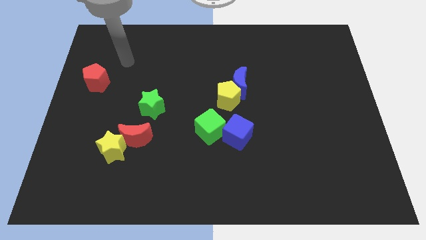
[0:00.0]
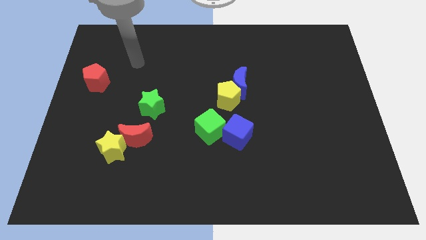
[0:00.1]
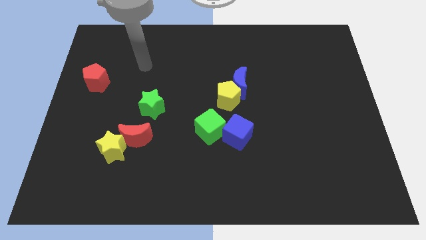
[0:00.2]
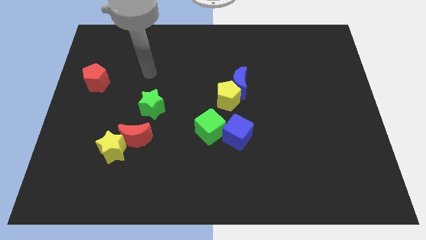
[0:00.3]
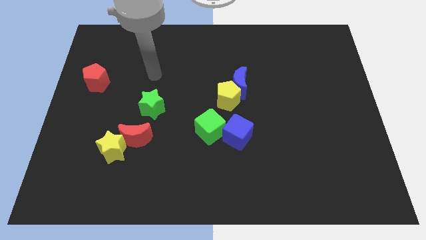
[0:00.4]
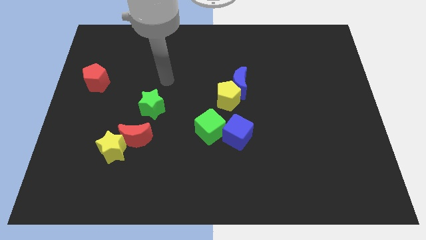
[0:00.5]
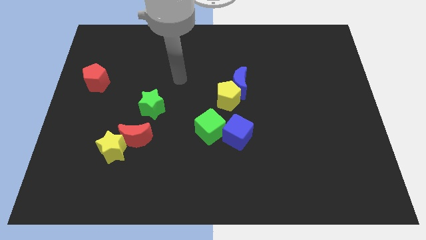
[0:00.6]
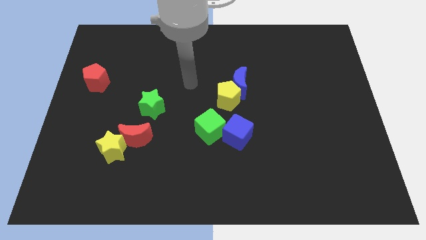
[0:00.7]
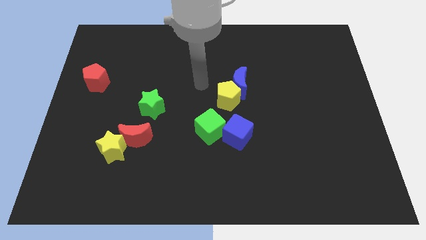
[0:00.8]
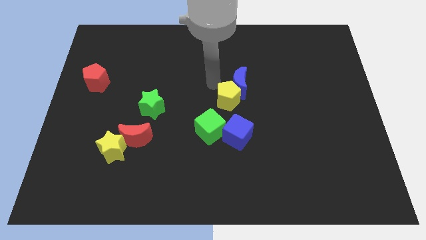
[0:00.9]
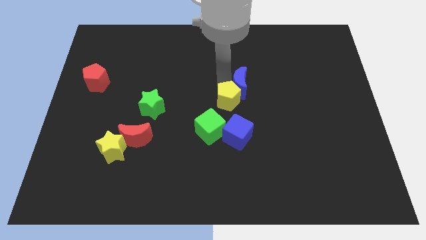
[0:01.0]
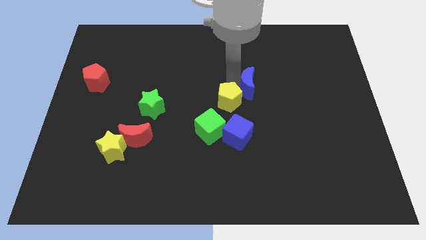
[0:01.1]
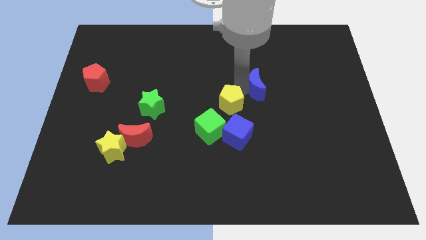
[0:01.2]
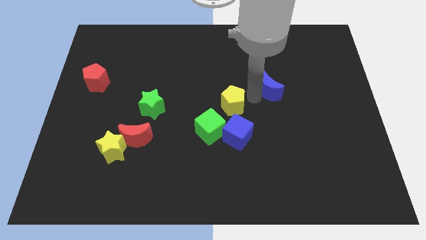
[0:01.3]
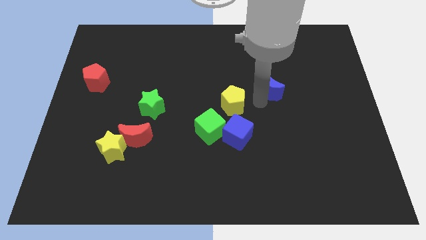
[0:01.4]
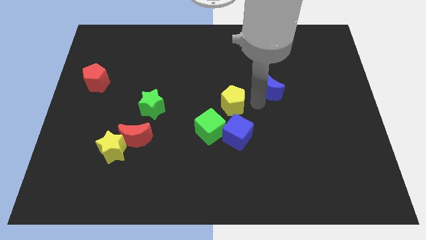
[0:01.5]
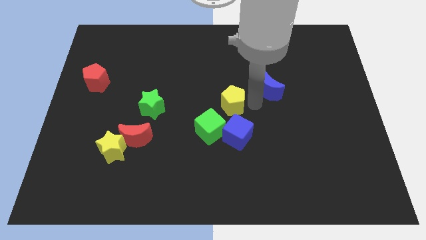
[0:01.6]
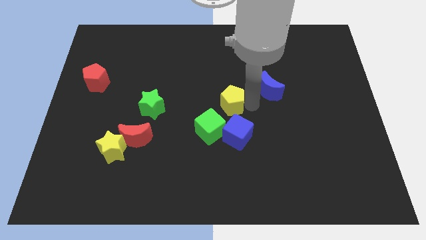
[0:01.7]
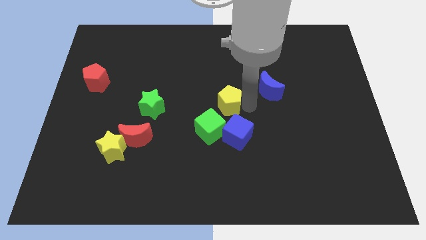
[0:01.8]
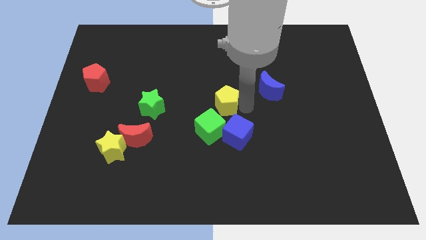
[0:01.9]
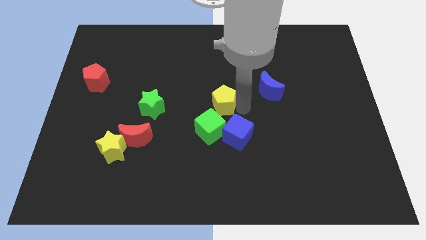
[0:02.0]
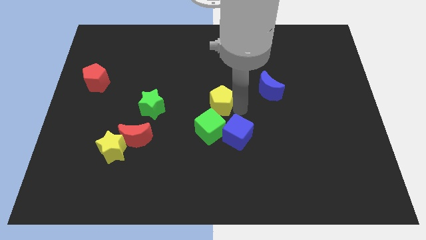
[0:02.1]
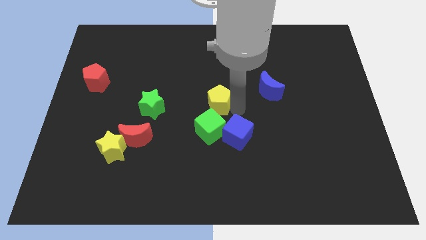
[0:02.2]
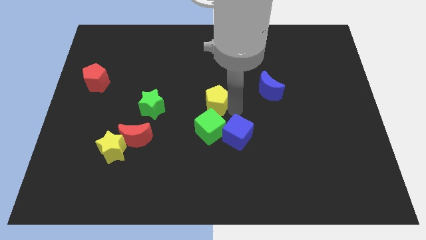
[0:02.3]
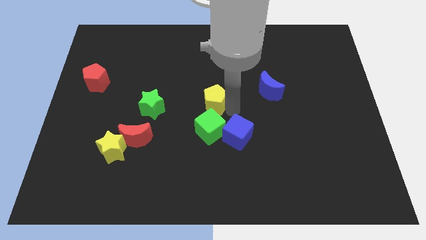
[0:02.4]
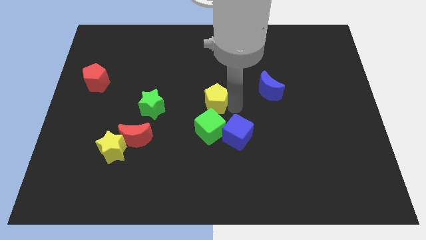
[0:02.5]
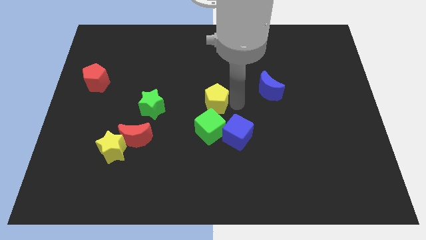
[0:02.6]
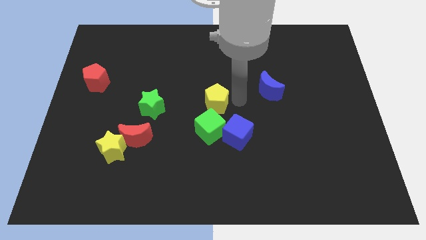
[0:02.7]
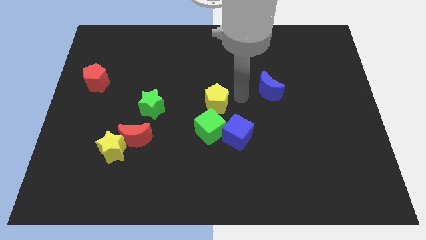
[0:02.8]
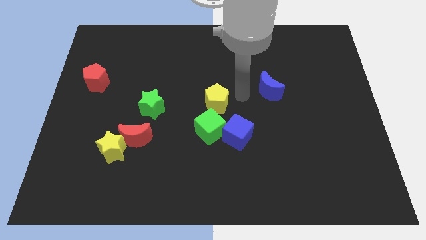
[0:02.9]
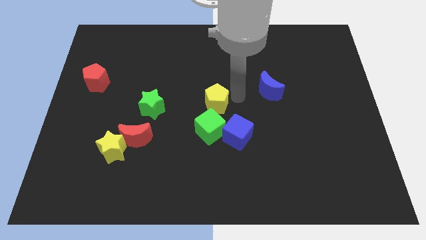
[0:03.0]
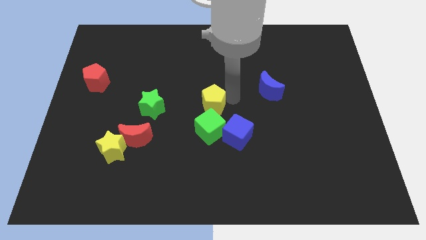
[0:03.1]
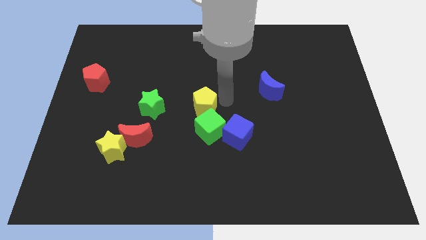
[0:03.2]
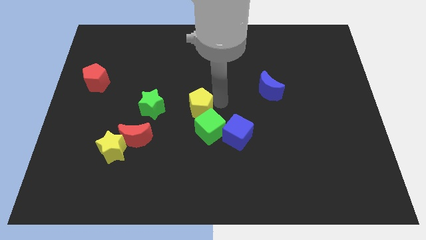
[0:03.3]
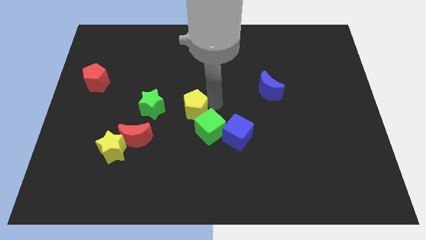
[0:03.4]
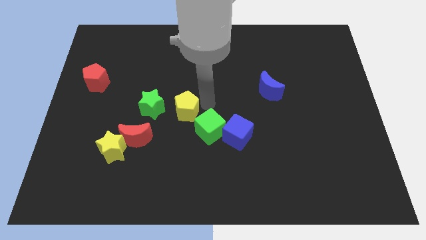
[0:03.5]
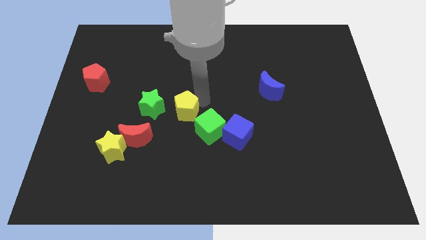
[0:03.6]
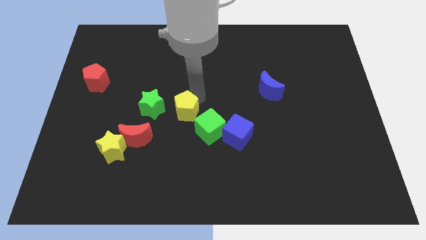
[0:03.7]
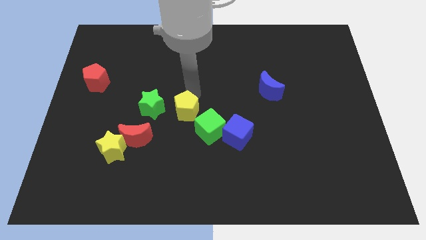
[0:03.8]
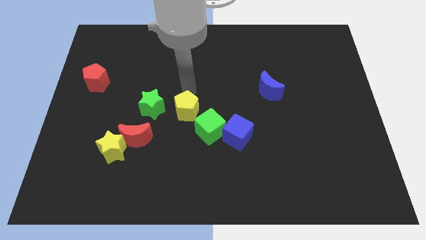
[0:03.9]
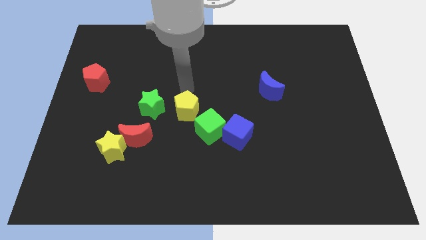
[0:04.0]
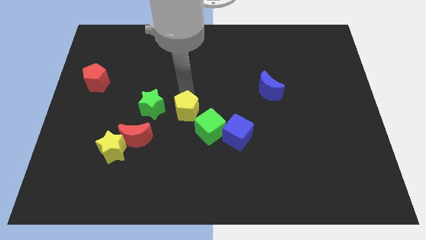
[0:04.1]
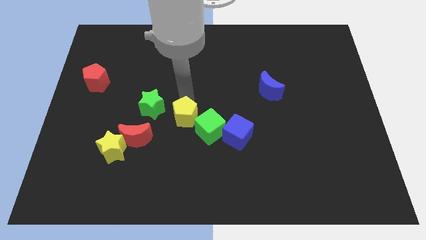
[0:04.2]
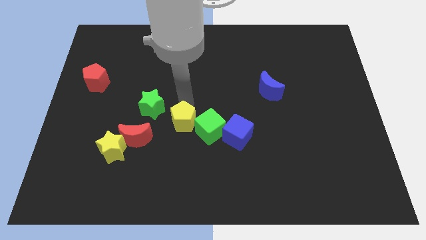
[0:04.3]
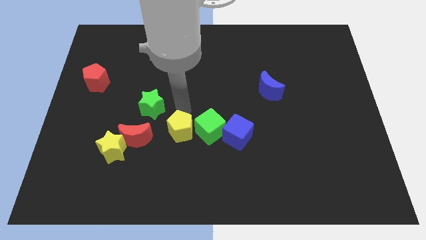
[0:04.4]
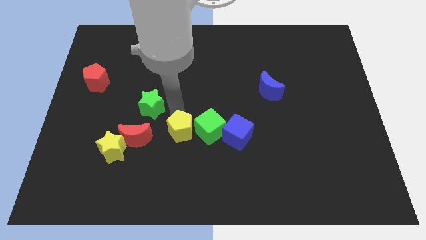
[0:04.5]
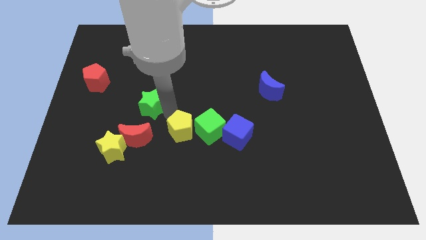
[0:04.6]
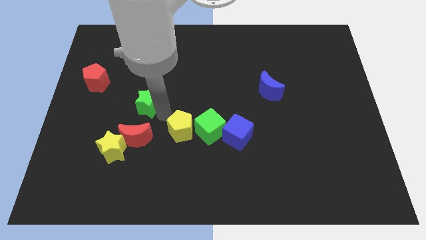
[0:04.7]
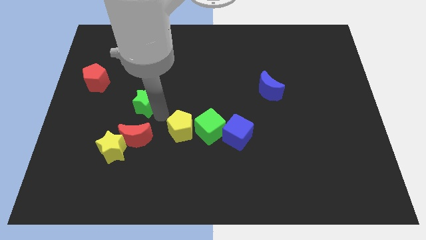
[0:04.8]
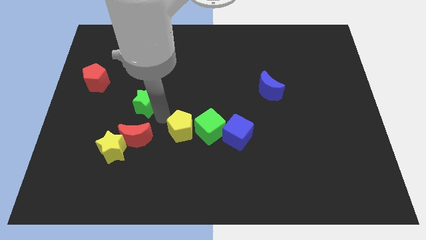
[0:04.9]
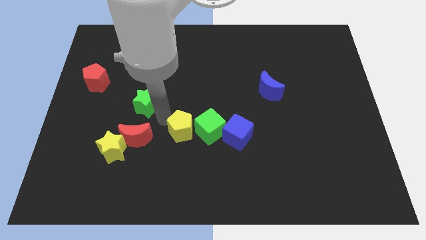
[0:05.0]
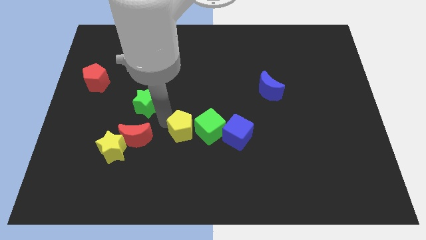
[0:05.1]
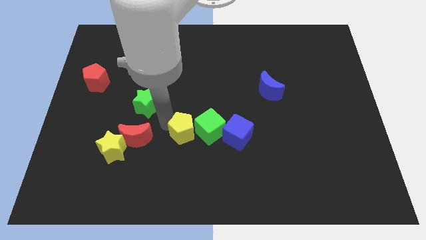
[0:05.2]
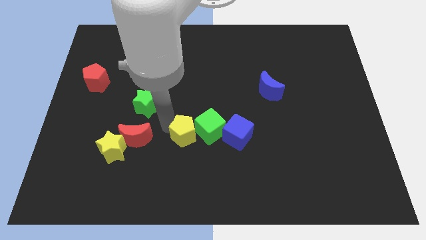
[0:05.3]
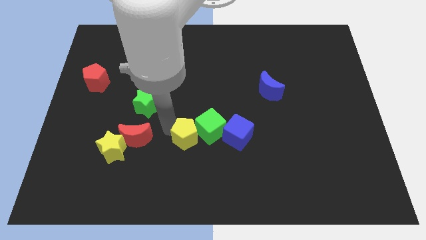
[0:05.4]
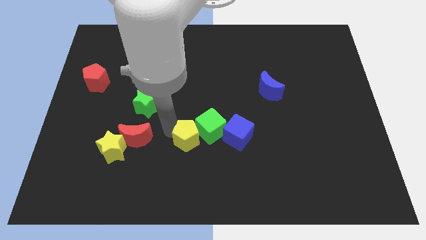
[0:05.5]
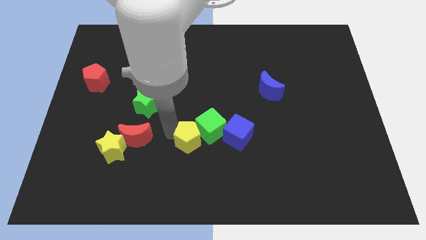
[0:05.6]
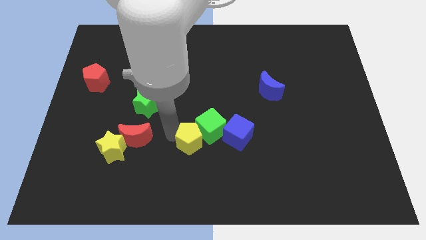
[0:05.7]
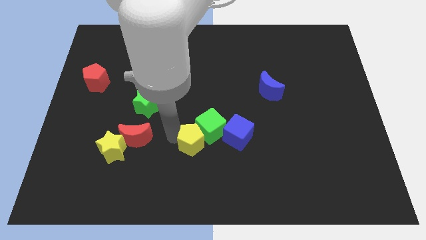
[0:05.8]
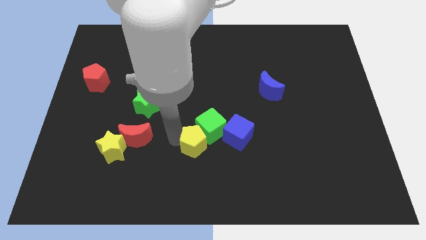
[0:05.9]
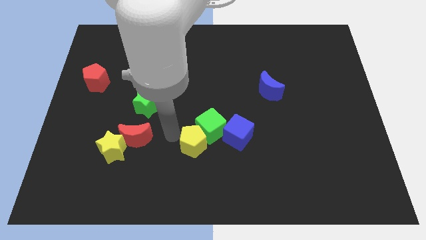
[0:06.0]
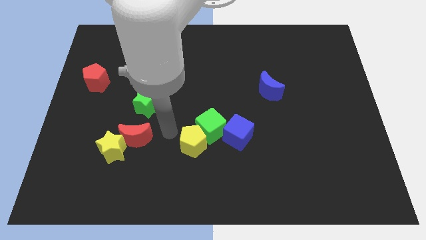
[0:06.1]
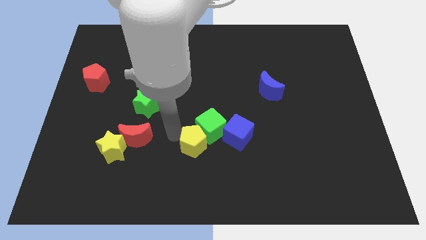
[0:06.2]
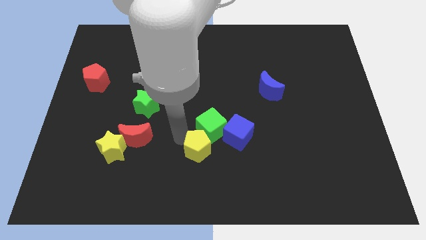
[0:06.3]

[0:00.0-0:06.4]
put the yellow pentagon to the bottom left side of the blue cube
